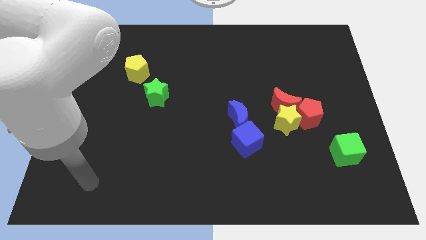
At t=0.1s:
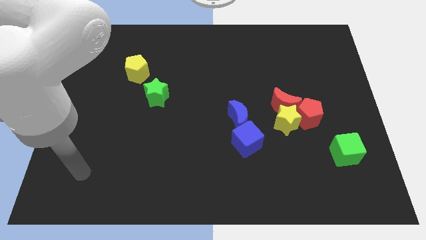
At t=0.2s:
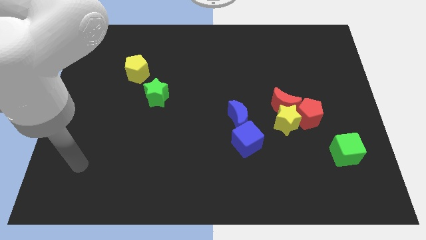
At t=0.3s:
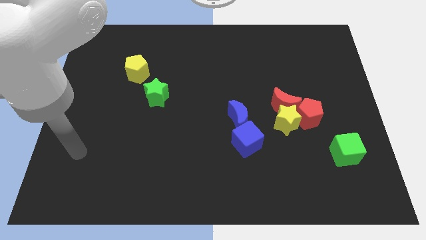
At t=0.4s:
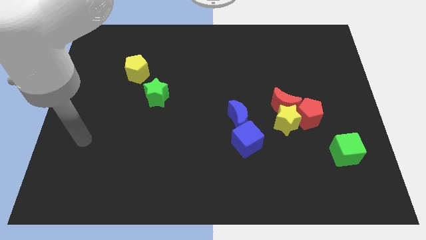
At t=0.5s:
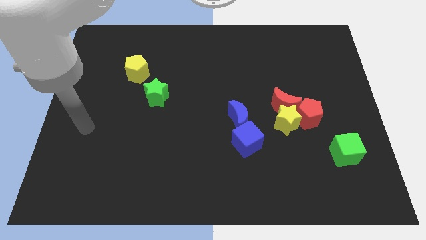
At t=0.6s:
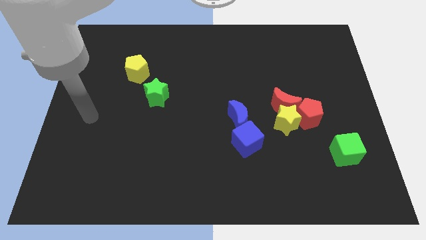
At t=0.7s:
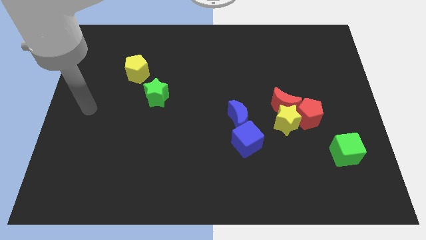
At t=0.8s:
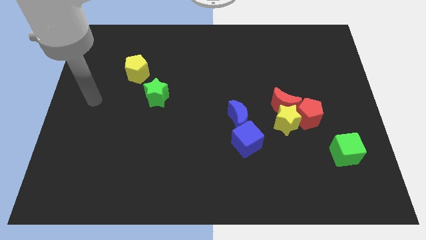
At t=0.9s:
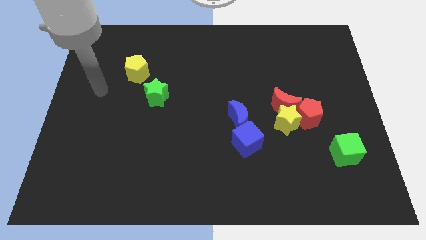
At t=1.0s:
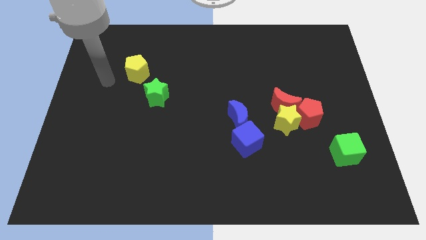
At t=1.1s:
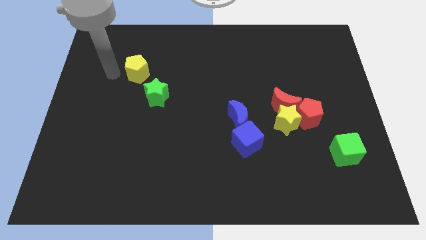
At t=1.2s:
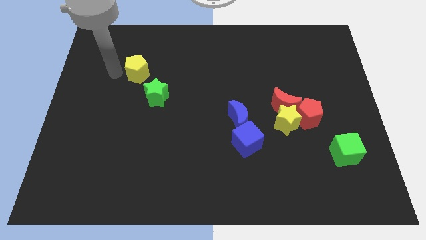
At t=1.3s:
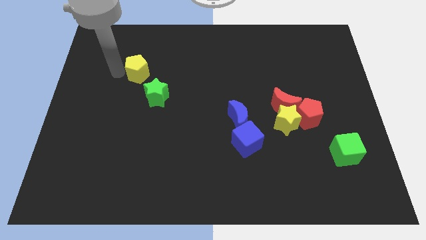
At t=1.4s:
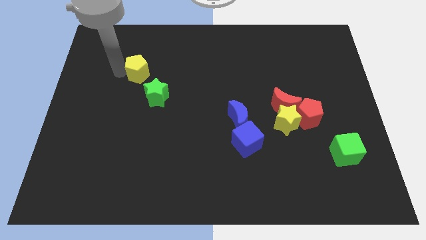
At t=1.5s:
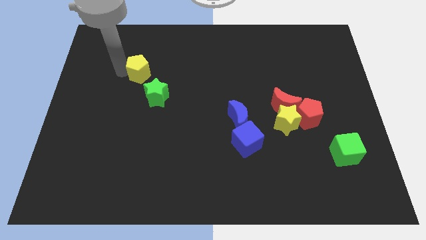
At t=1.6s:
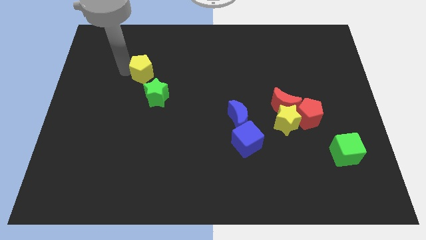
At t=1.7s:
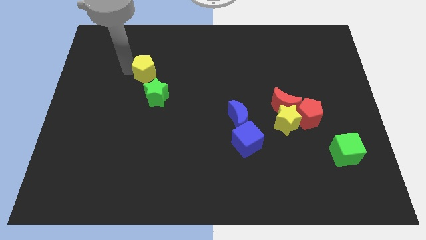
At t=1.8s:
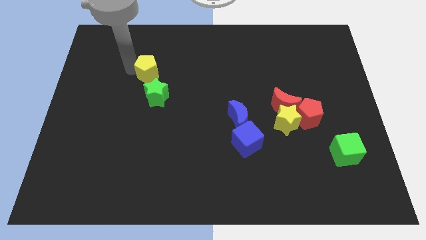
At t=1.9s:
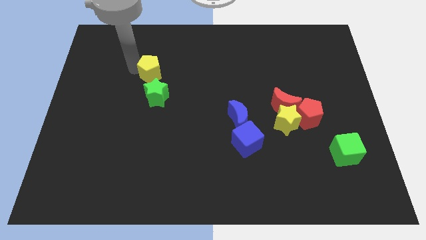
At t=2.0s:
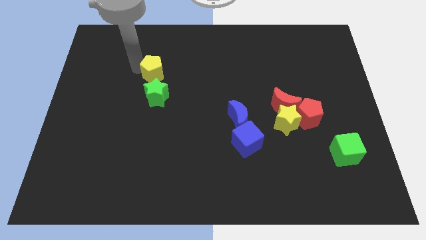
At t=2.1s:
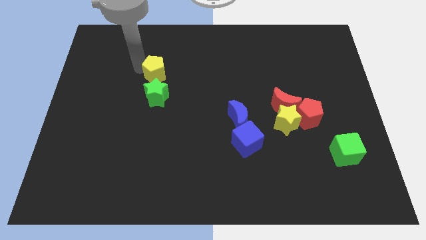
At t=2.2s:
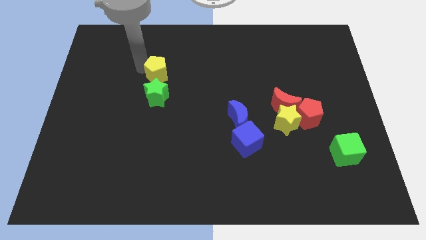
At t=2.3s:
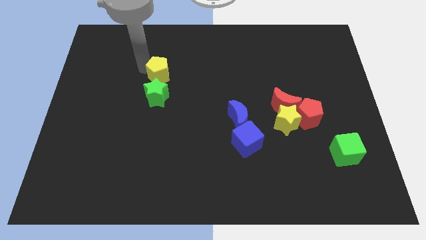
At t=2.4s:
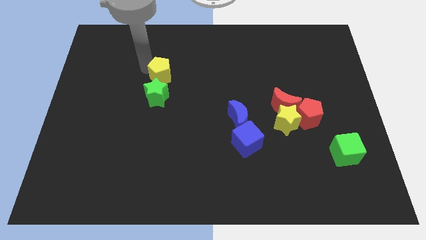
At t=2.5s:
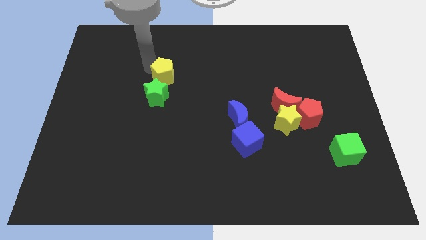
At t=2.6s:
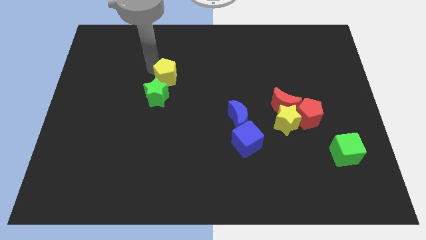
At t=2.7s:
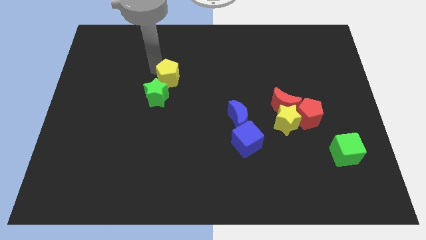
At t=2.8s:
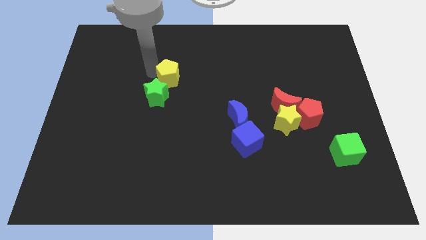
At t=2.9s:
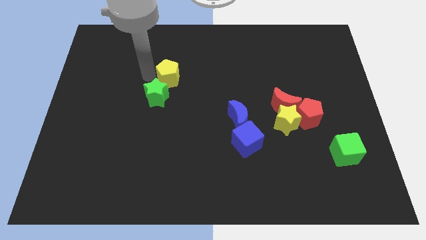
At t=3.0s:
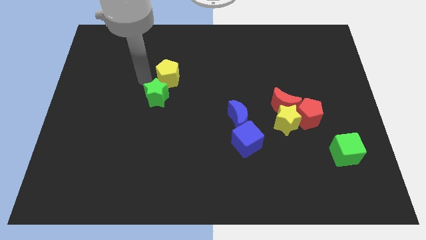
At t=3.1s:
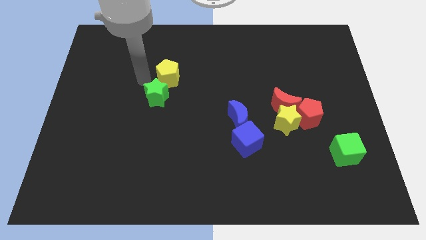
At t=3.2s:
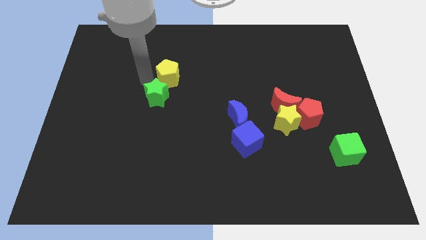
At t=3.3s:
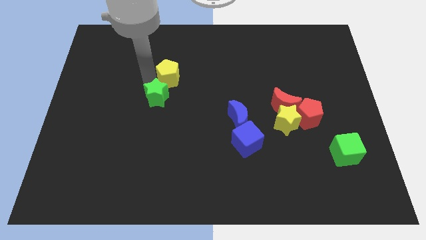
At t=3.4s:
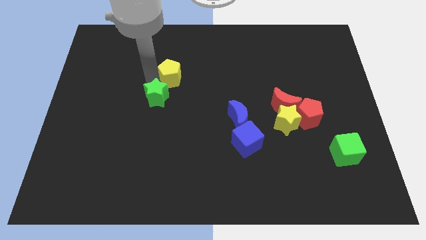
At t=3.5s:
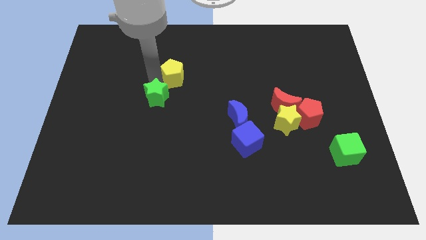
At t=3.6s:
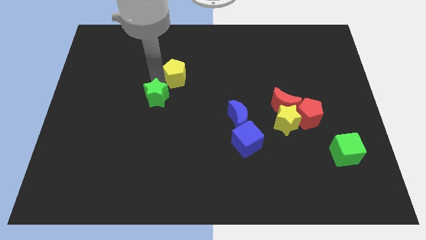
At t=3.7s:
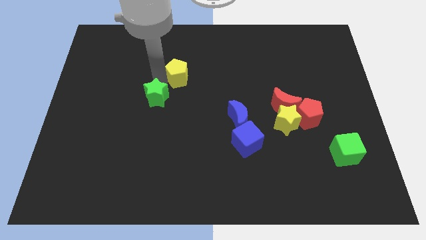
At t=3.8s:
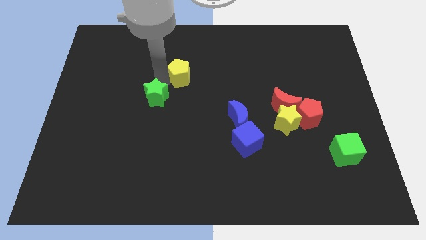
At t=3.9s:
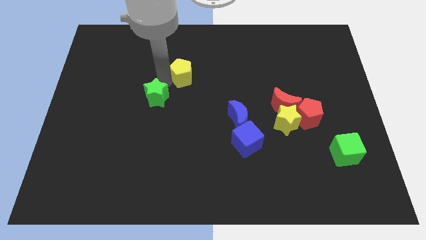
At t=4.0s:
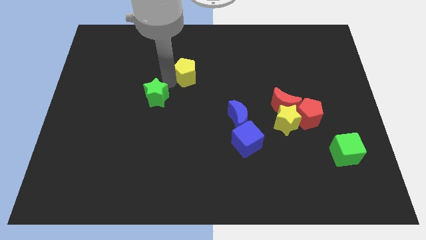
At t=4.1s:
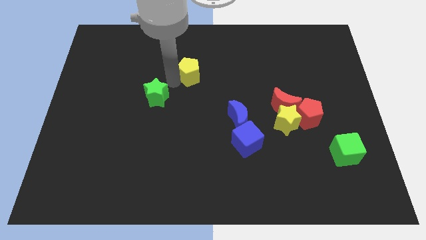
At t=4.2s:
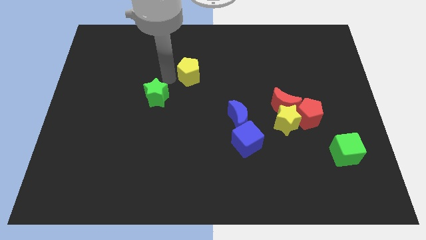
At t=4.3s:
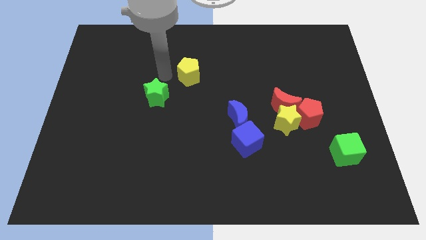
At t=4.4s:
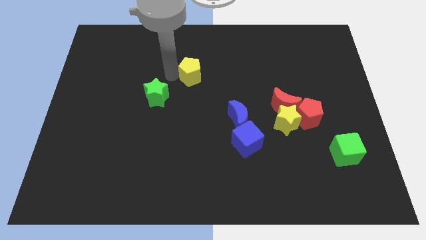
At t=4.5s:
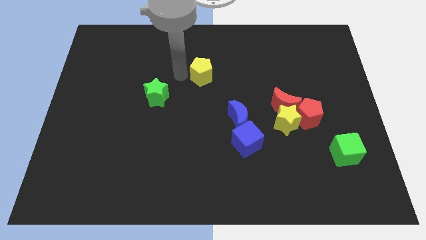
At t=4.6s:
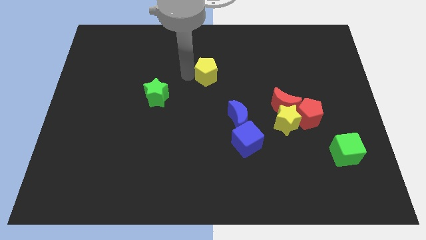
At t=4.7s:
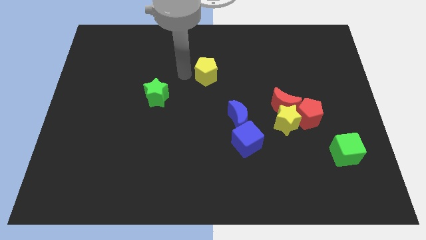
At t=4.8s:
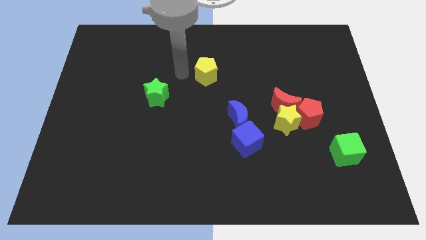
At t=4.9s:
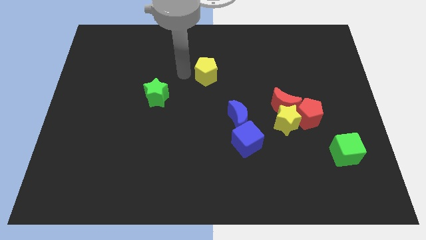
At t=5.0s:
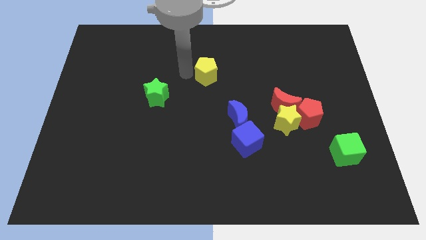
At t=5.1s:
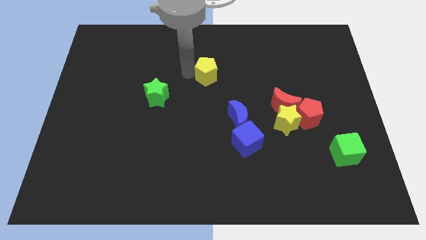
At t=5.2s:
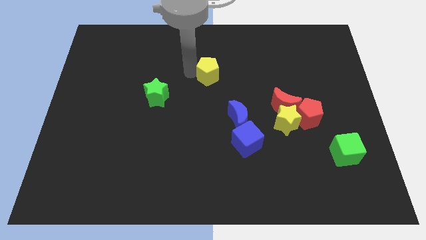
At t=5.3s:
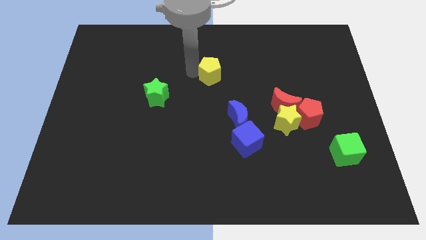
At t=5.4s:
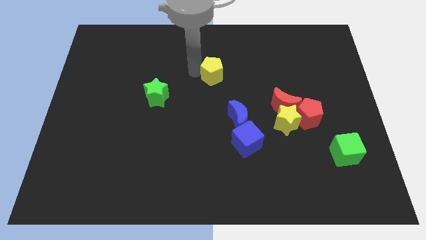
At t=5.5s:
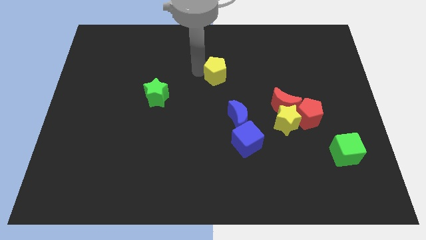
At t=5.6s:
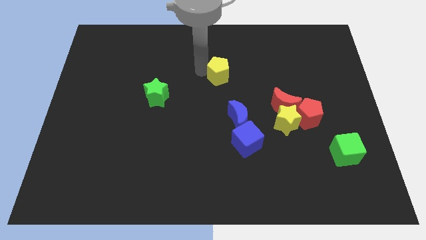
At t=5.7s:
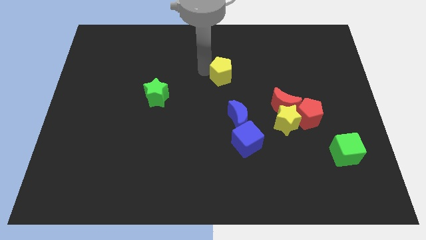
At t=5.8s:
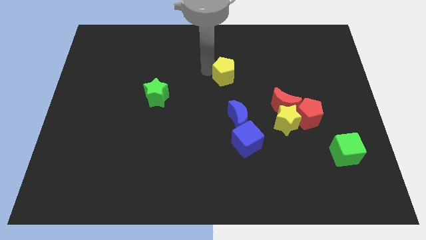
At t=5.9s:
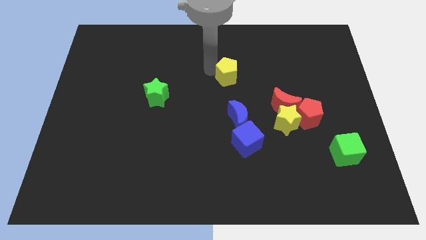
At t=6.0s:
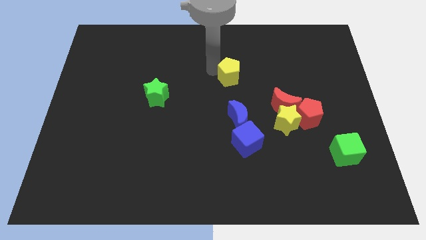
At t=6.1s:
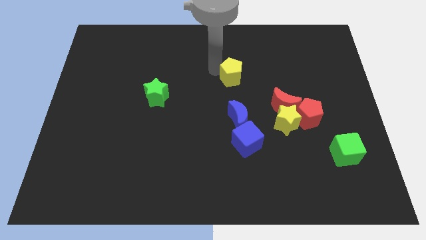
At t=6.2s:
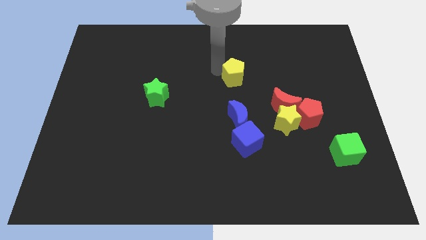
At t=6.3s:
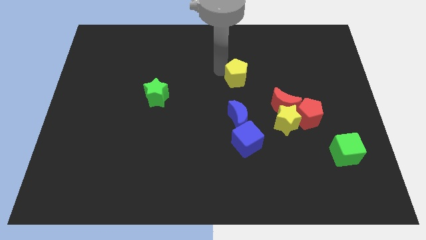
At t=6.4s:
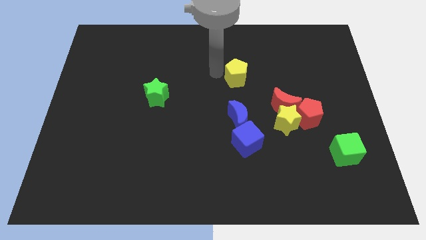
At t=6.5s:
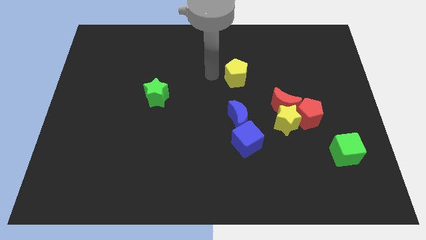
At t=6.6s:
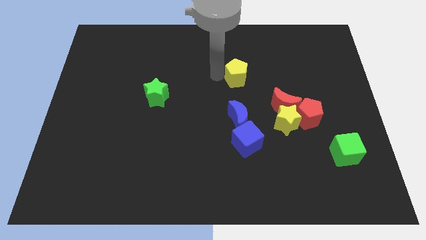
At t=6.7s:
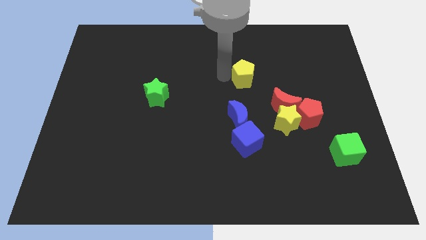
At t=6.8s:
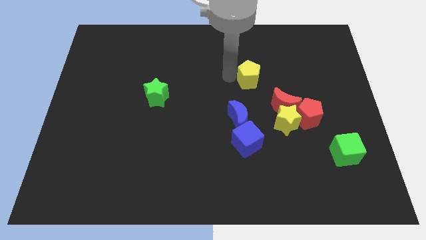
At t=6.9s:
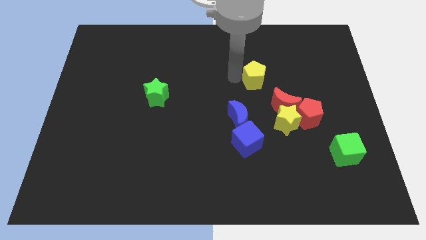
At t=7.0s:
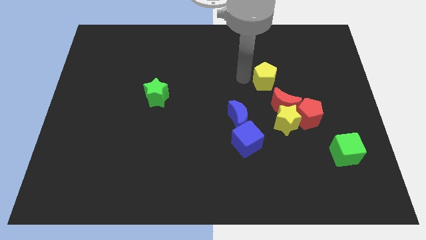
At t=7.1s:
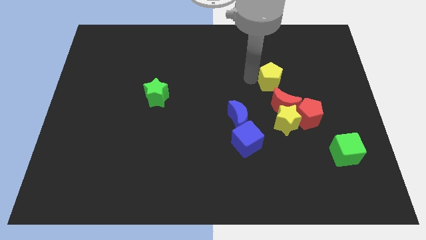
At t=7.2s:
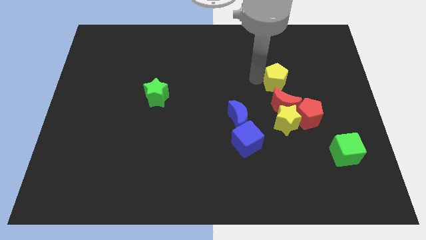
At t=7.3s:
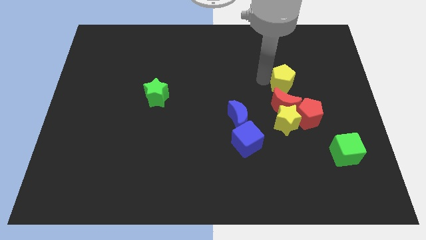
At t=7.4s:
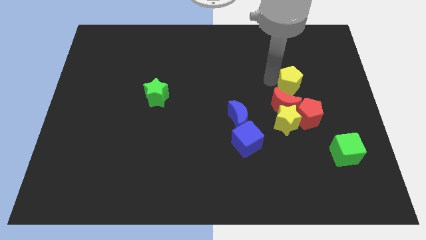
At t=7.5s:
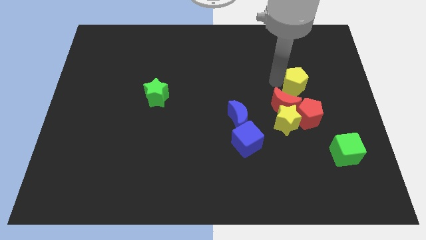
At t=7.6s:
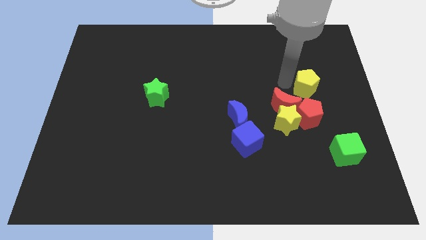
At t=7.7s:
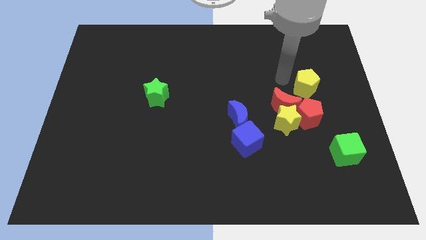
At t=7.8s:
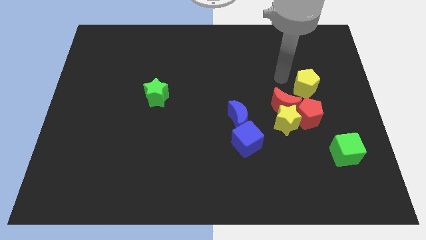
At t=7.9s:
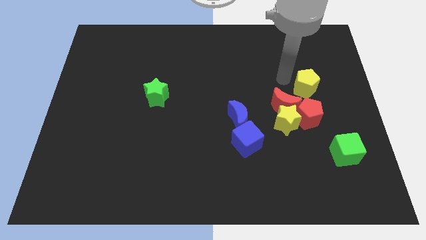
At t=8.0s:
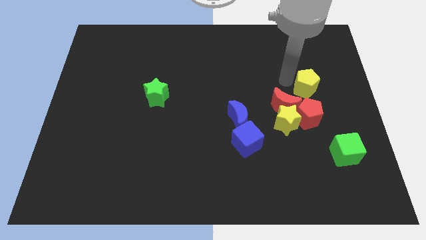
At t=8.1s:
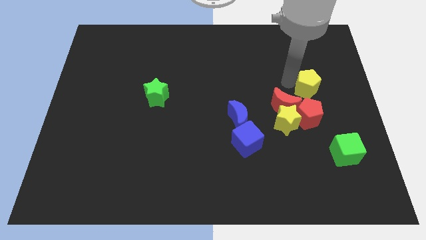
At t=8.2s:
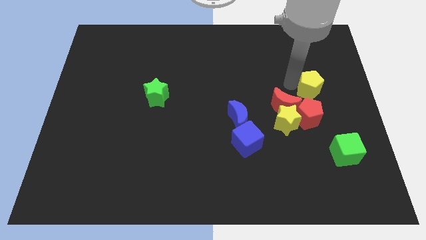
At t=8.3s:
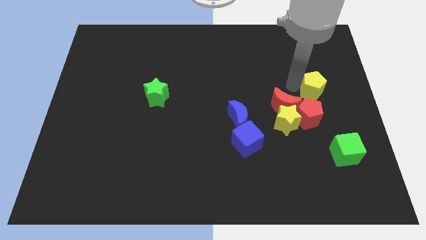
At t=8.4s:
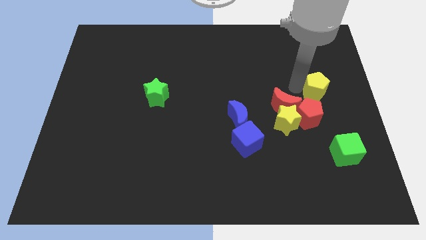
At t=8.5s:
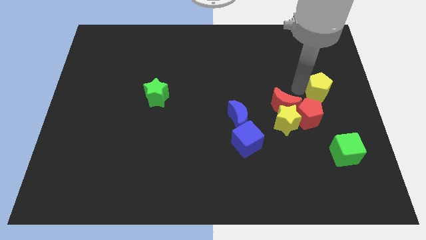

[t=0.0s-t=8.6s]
slide the yellow pentagon to the right side
